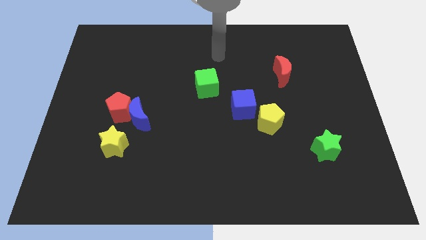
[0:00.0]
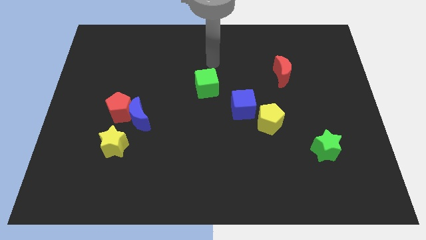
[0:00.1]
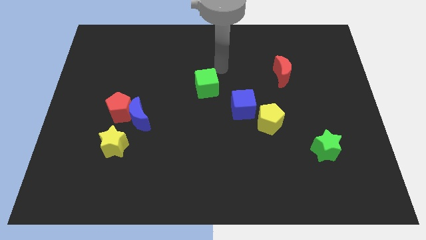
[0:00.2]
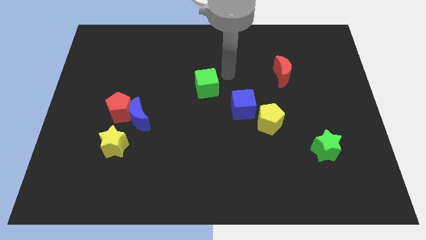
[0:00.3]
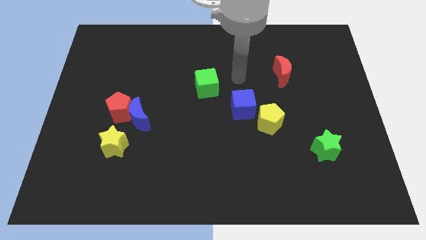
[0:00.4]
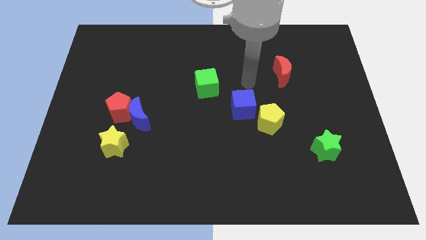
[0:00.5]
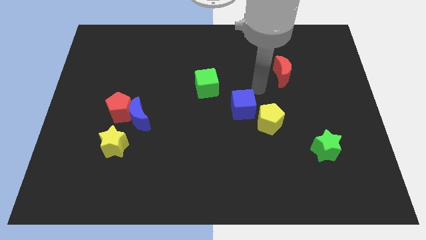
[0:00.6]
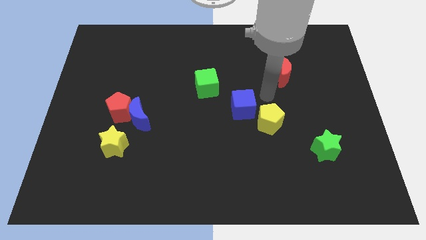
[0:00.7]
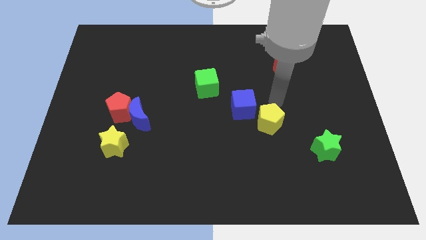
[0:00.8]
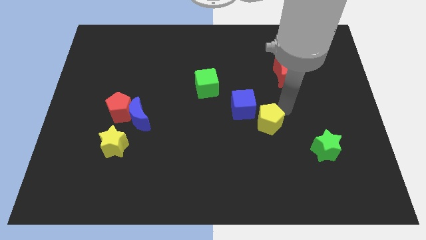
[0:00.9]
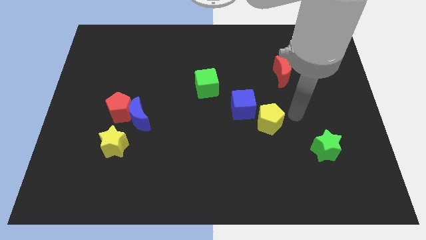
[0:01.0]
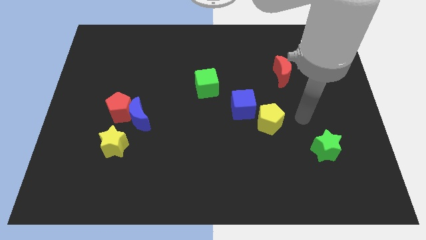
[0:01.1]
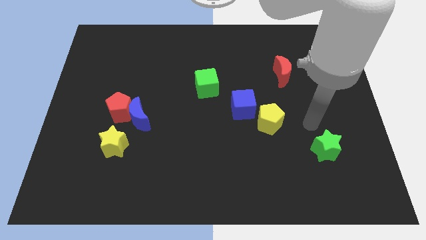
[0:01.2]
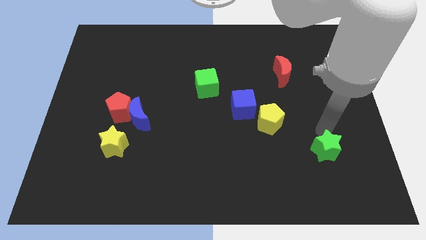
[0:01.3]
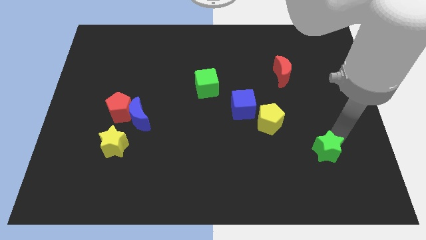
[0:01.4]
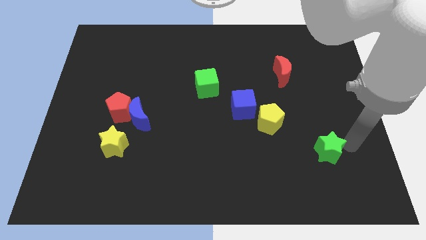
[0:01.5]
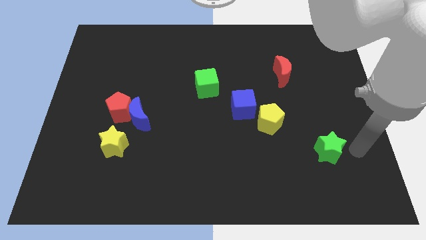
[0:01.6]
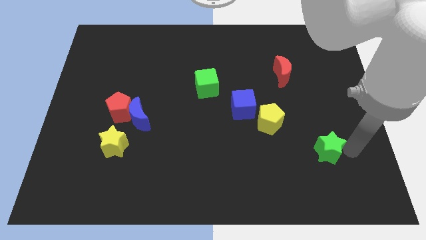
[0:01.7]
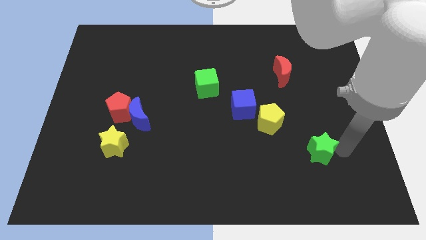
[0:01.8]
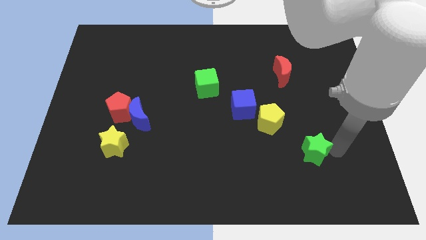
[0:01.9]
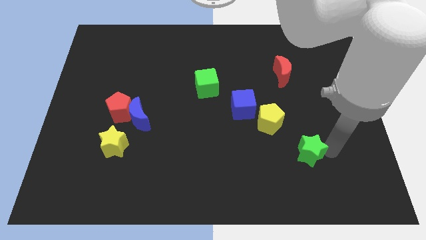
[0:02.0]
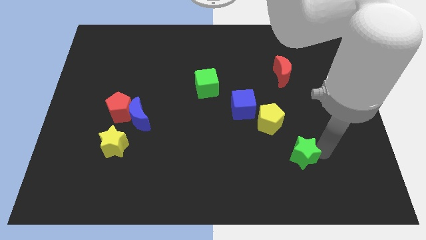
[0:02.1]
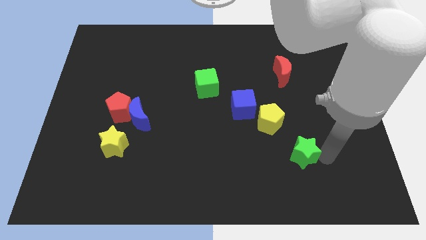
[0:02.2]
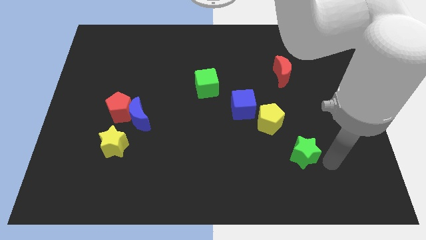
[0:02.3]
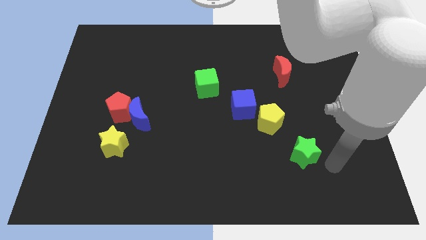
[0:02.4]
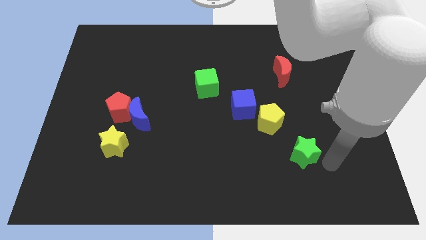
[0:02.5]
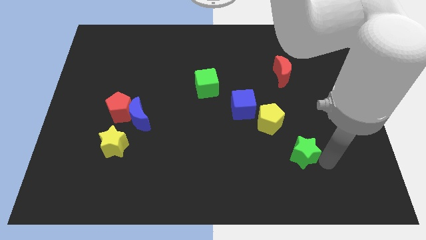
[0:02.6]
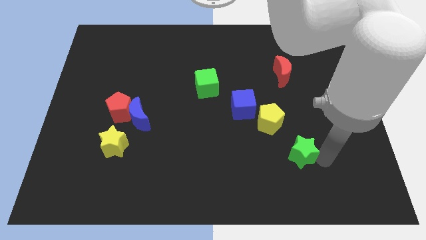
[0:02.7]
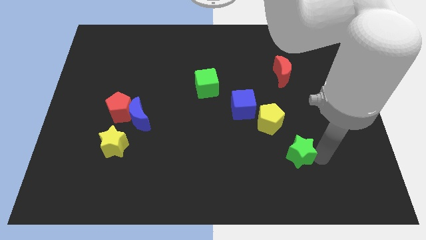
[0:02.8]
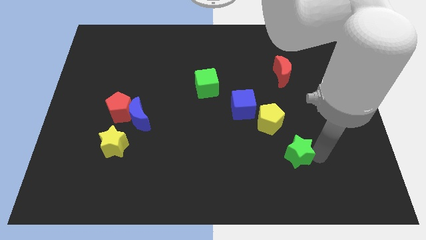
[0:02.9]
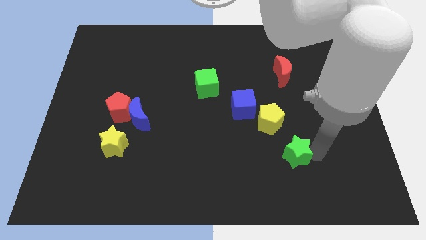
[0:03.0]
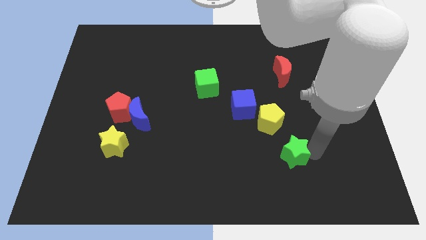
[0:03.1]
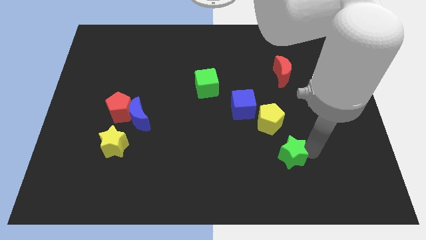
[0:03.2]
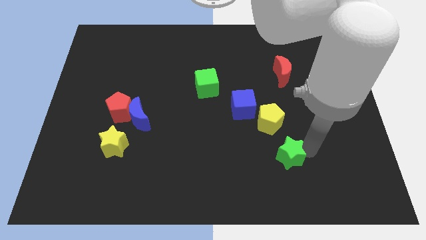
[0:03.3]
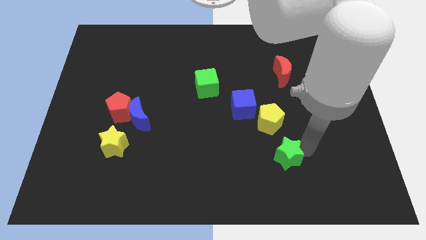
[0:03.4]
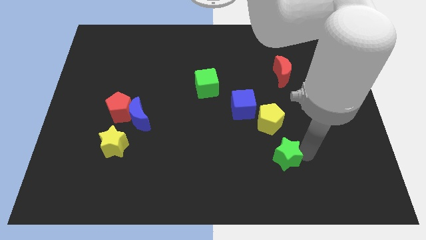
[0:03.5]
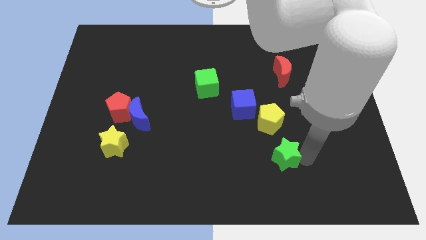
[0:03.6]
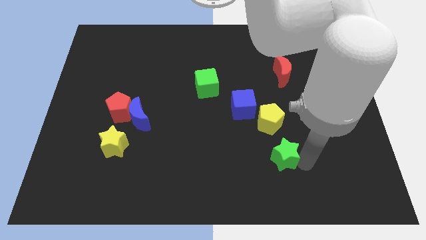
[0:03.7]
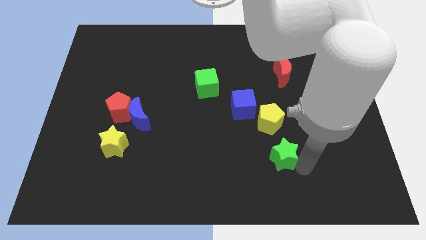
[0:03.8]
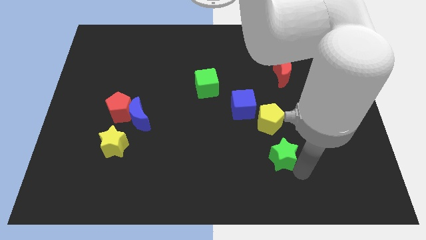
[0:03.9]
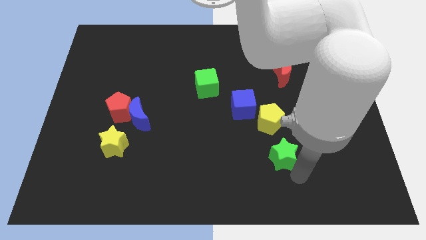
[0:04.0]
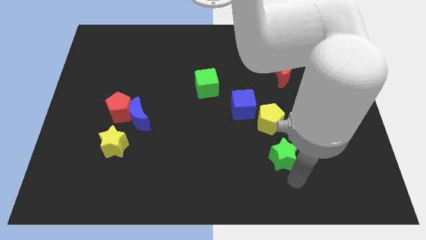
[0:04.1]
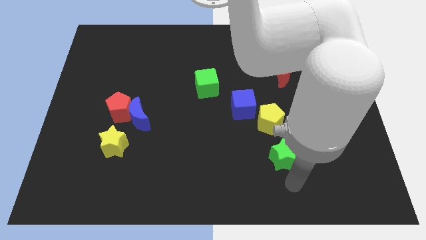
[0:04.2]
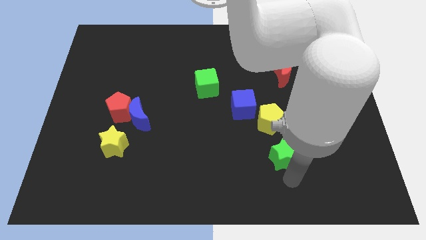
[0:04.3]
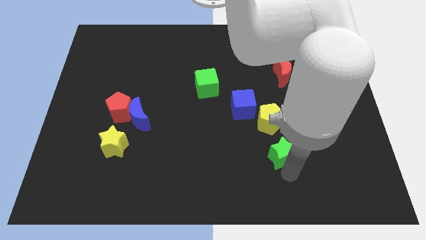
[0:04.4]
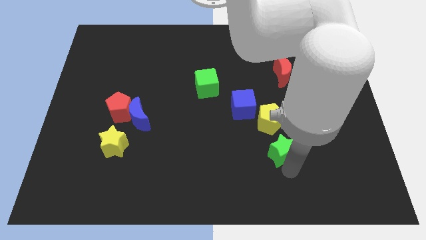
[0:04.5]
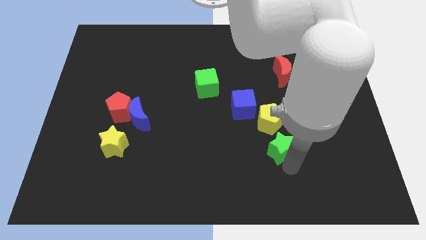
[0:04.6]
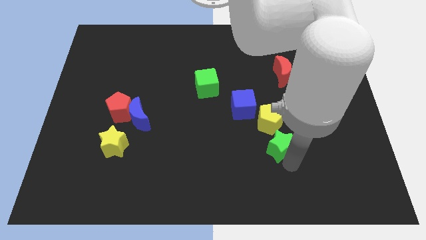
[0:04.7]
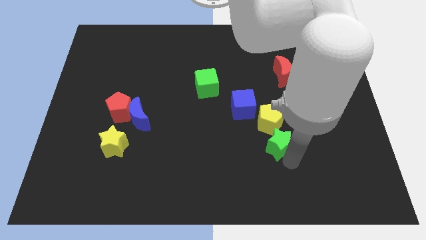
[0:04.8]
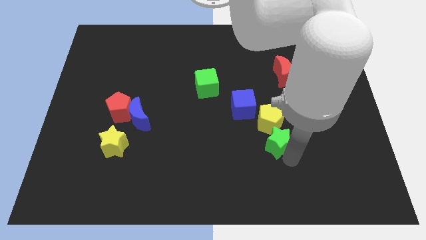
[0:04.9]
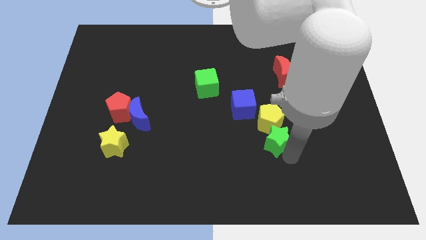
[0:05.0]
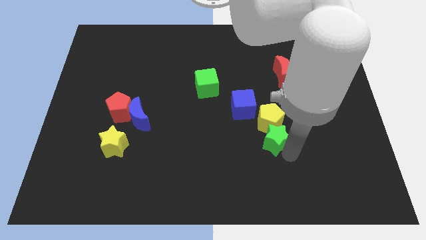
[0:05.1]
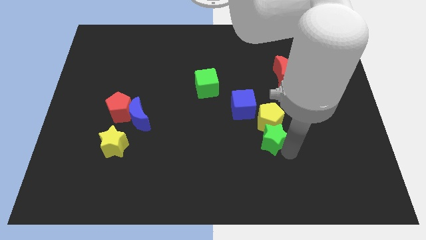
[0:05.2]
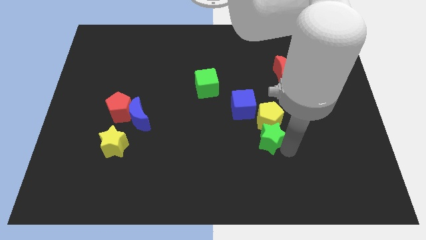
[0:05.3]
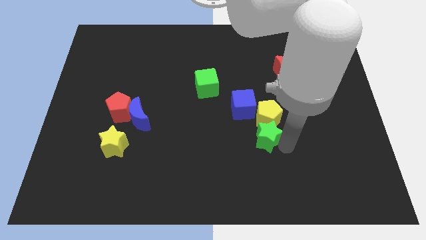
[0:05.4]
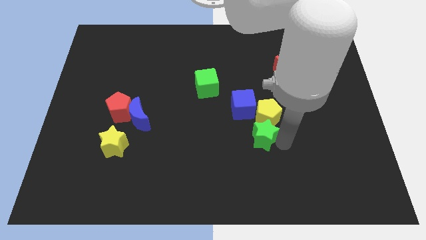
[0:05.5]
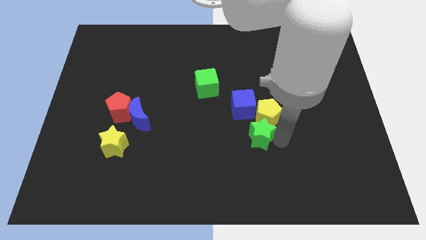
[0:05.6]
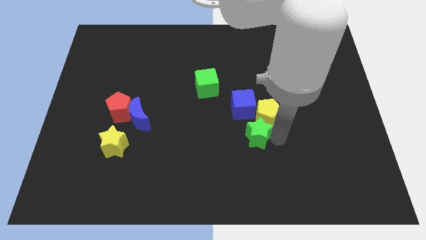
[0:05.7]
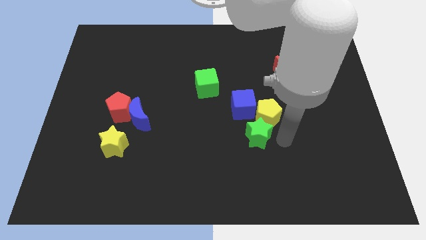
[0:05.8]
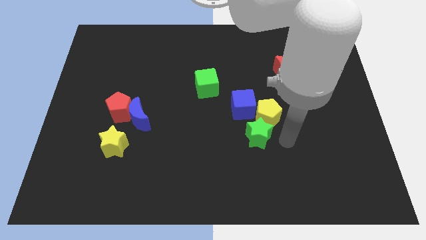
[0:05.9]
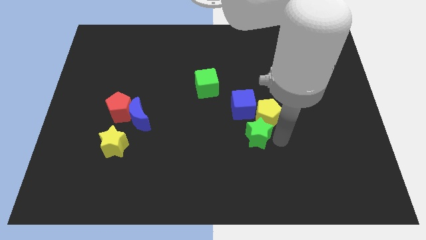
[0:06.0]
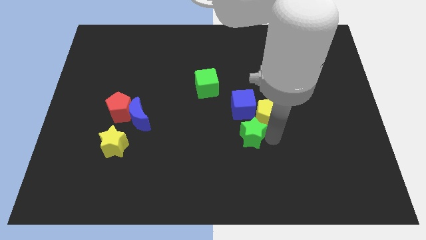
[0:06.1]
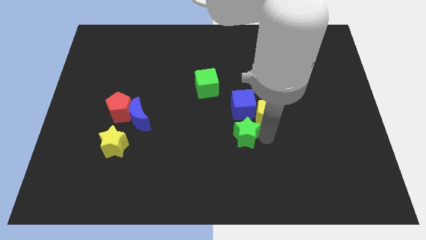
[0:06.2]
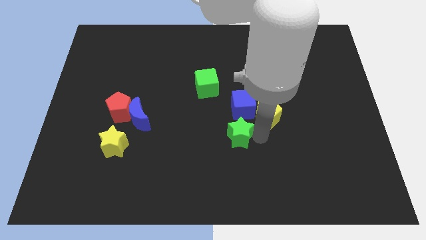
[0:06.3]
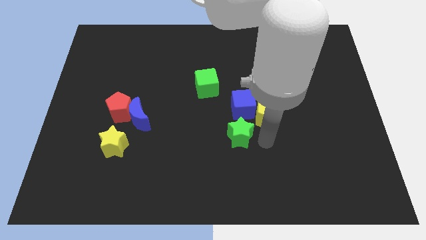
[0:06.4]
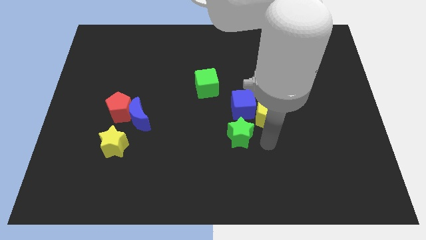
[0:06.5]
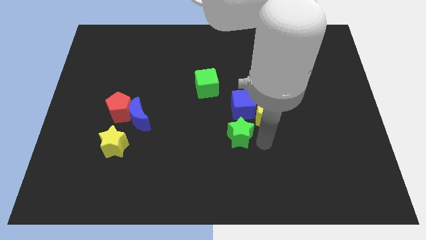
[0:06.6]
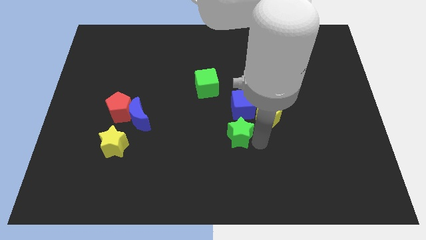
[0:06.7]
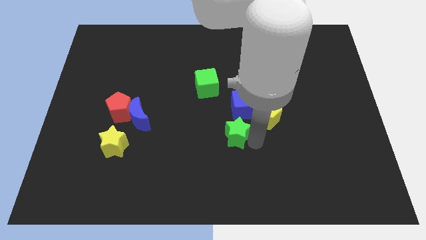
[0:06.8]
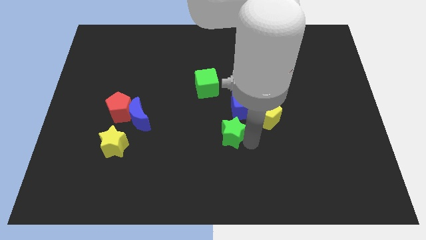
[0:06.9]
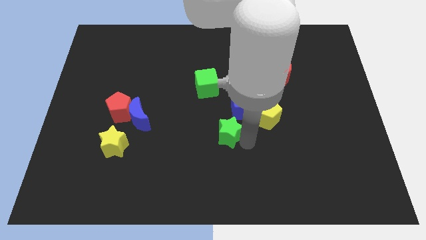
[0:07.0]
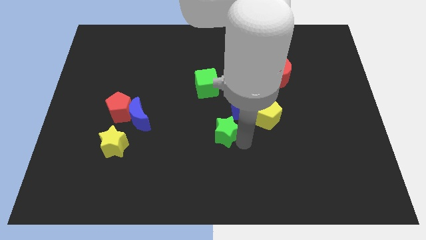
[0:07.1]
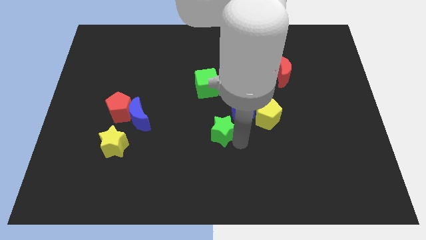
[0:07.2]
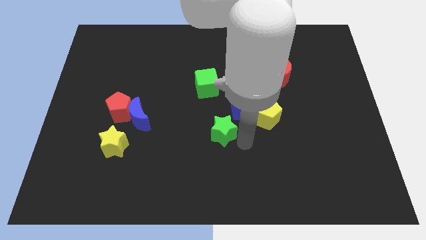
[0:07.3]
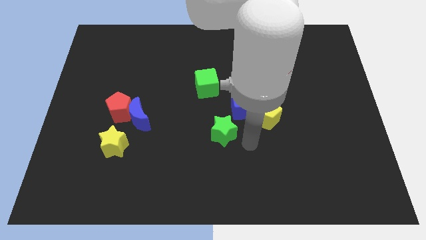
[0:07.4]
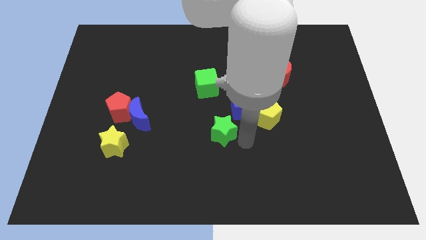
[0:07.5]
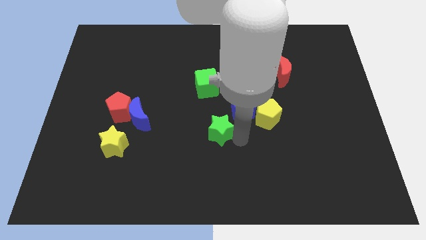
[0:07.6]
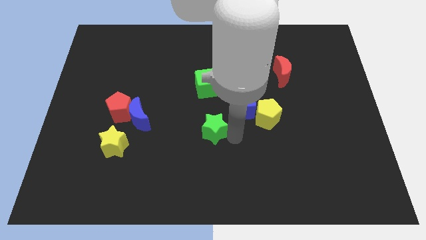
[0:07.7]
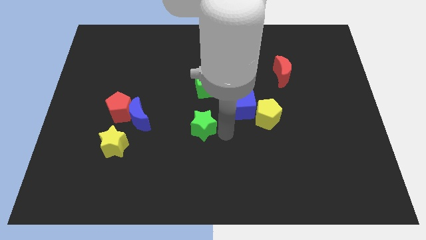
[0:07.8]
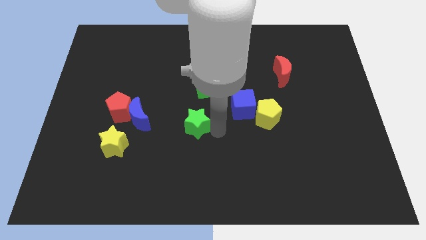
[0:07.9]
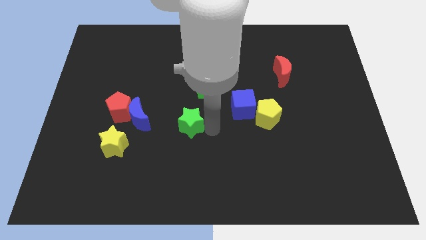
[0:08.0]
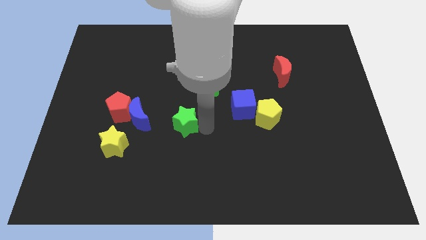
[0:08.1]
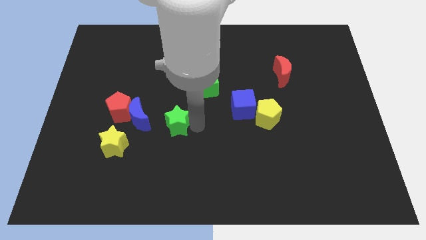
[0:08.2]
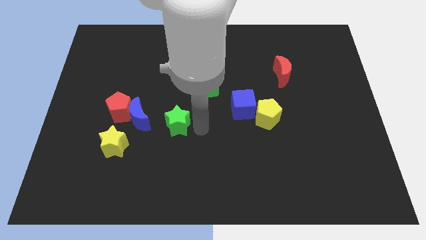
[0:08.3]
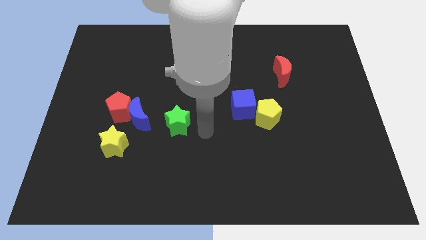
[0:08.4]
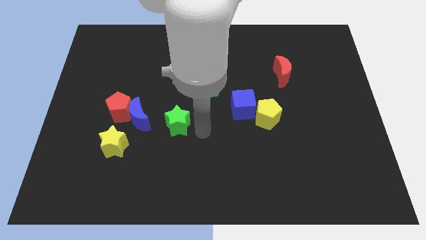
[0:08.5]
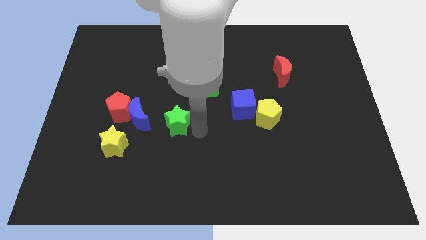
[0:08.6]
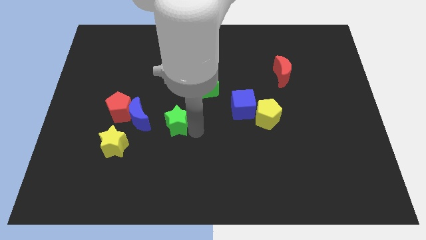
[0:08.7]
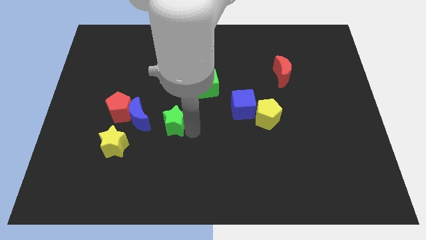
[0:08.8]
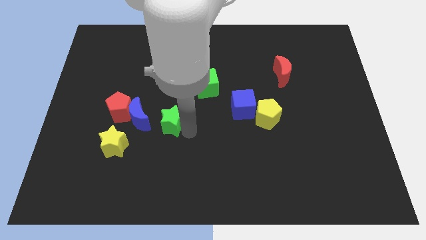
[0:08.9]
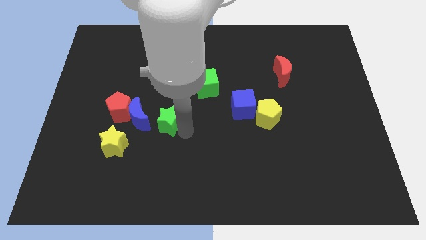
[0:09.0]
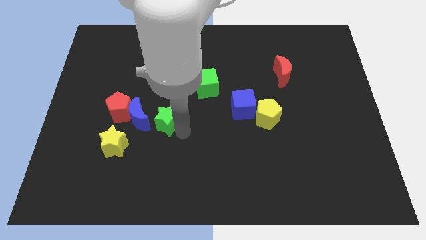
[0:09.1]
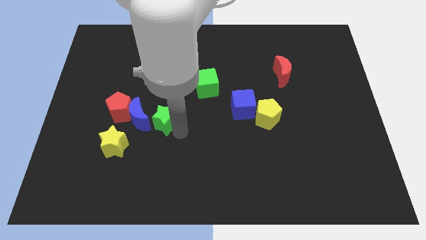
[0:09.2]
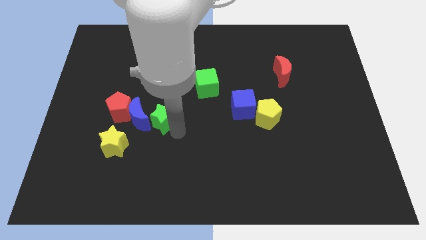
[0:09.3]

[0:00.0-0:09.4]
move the green star to the blue moon
